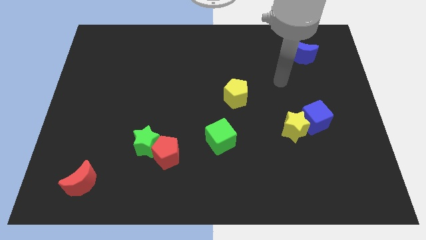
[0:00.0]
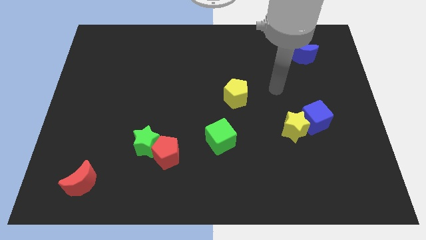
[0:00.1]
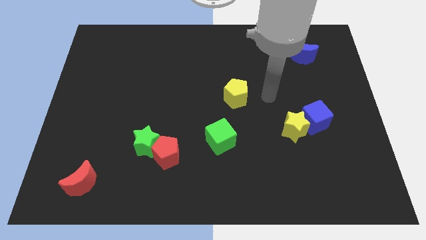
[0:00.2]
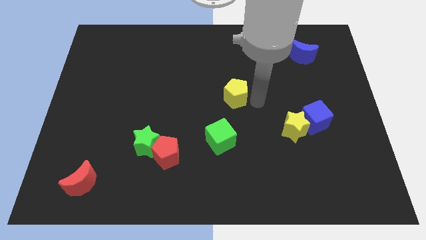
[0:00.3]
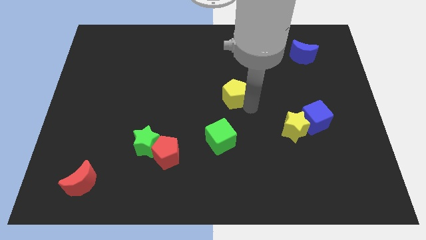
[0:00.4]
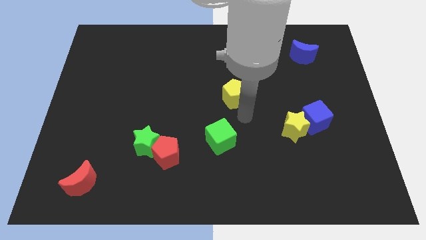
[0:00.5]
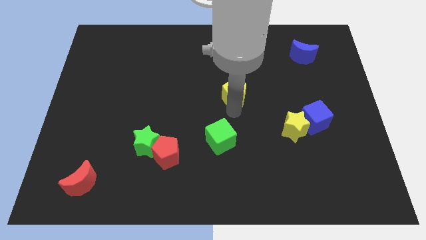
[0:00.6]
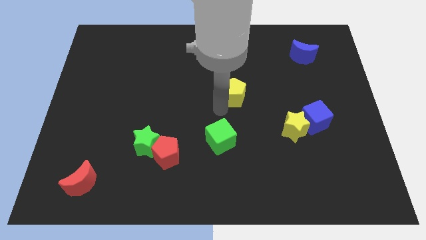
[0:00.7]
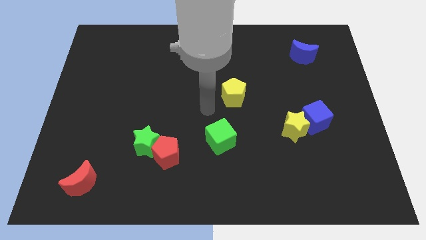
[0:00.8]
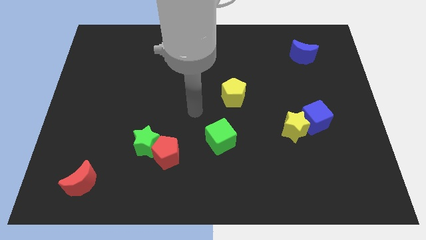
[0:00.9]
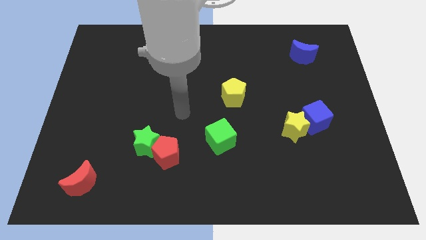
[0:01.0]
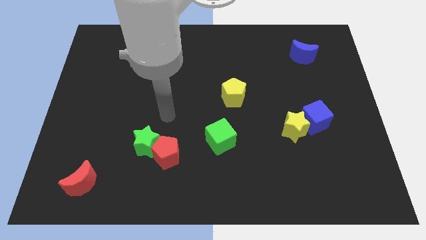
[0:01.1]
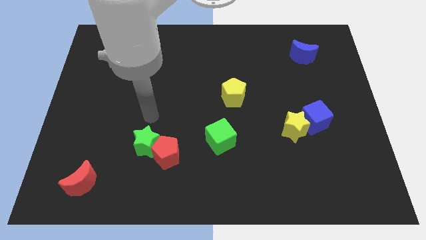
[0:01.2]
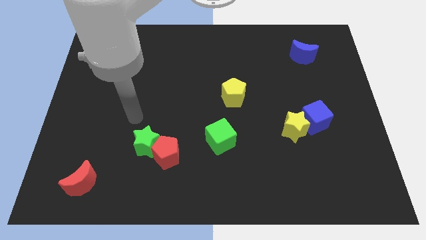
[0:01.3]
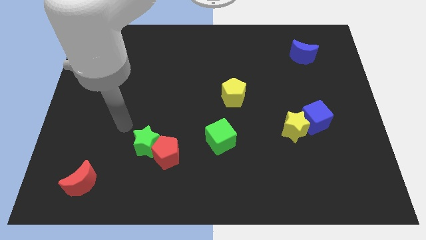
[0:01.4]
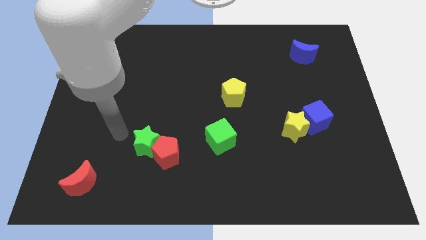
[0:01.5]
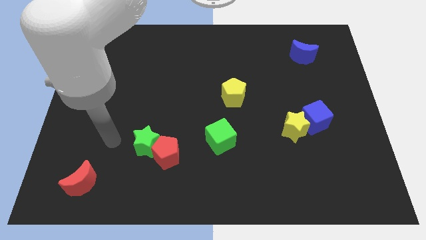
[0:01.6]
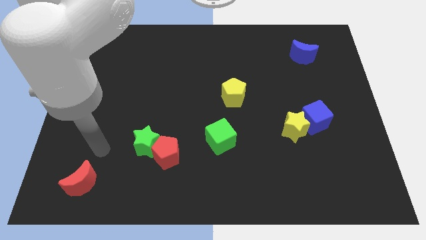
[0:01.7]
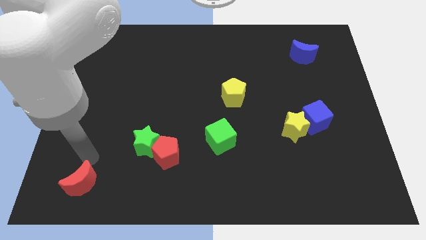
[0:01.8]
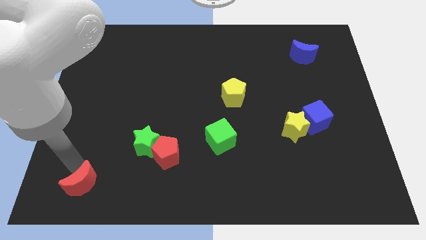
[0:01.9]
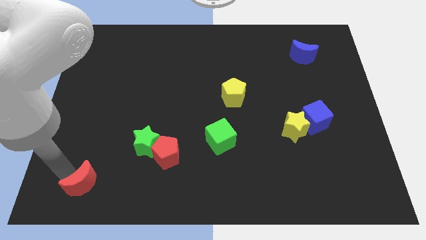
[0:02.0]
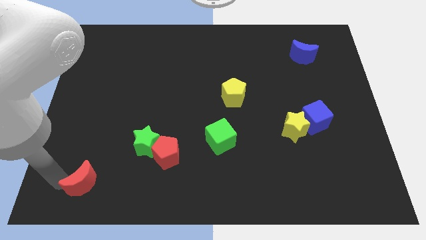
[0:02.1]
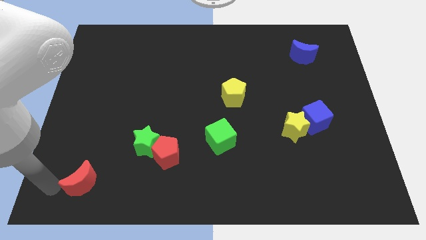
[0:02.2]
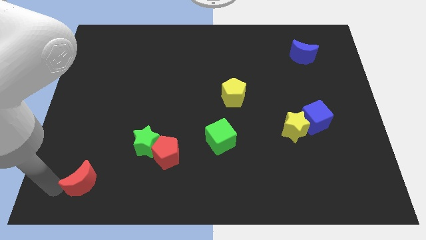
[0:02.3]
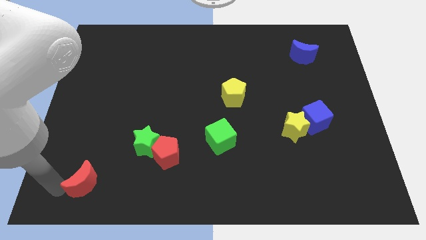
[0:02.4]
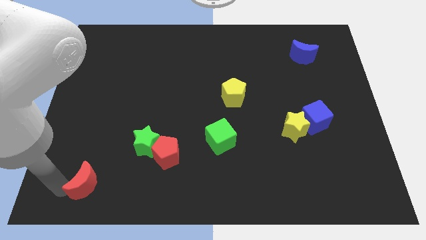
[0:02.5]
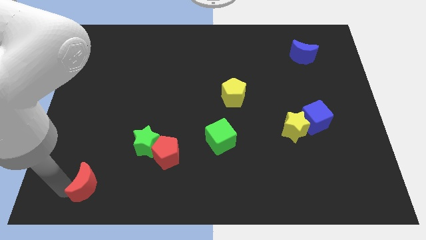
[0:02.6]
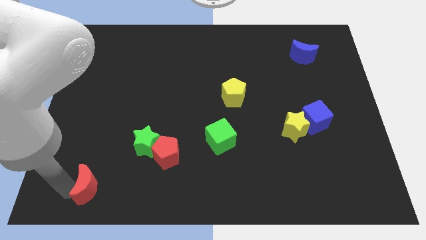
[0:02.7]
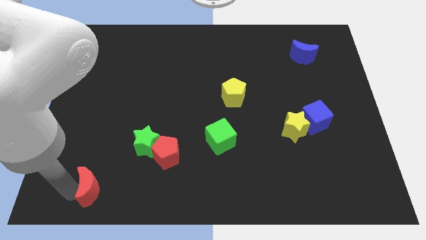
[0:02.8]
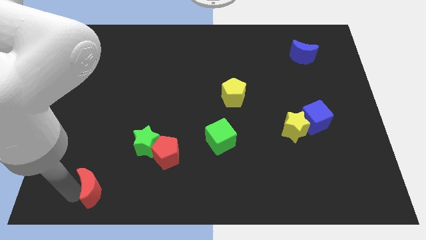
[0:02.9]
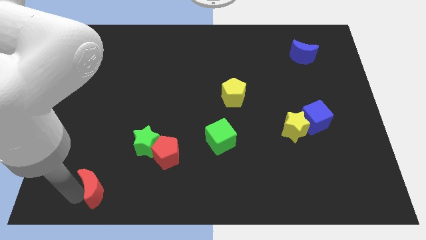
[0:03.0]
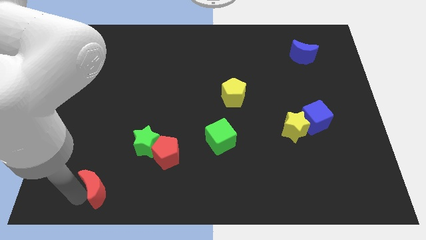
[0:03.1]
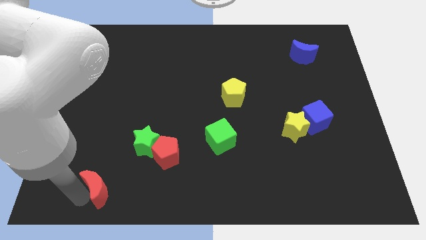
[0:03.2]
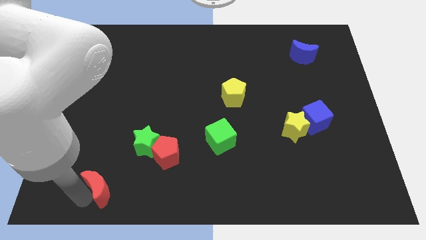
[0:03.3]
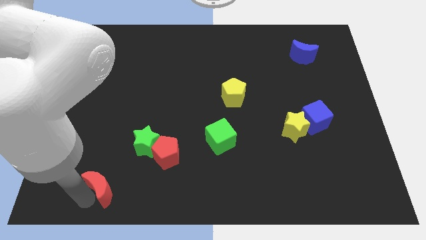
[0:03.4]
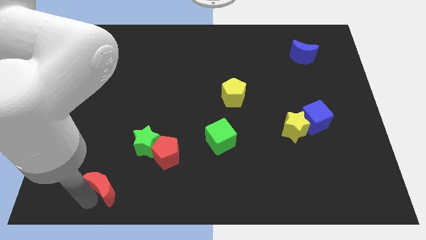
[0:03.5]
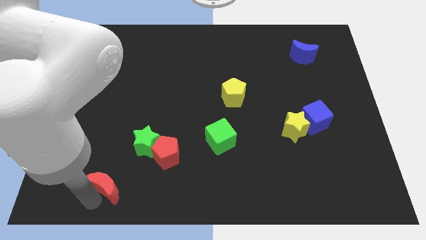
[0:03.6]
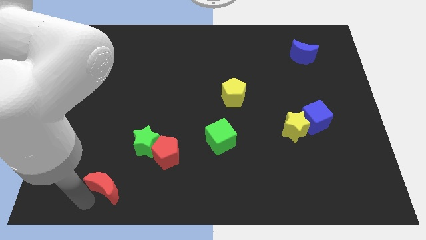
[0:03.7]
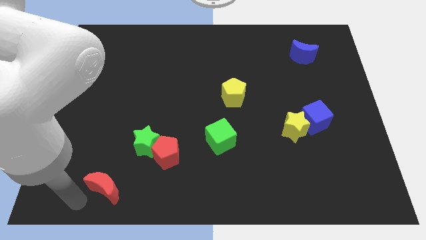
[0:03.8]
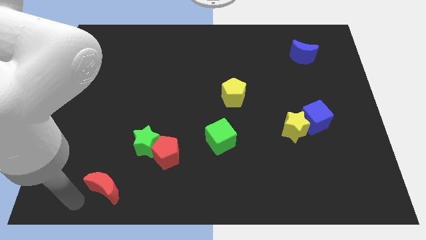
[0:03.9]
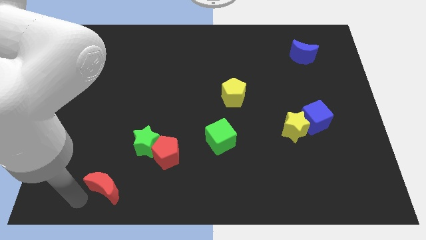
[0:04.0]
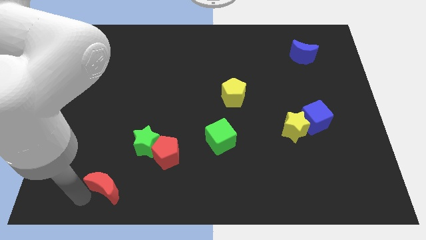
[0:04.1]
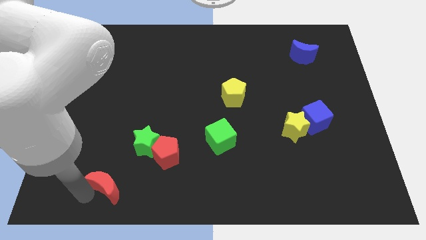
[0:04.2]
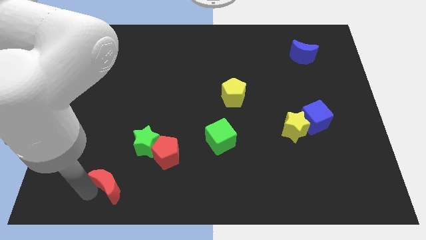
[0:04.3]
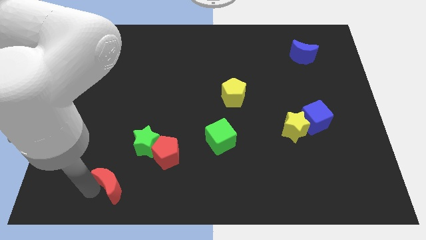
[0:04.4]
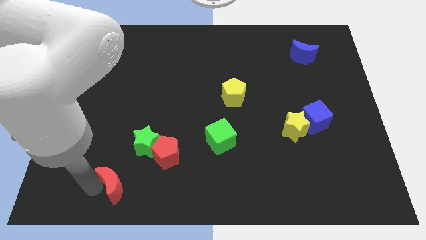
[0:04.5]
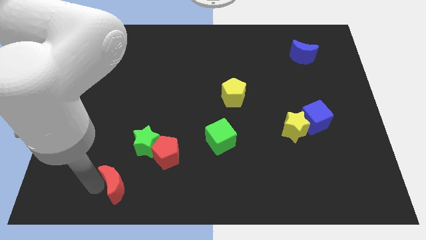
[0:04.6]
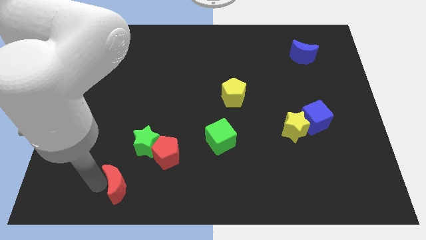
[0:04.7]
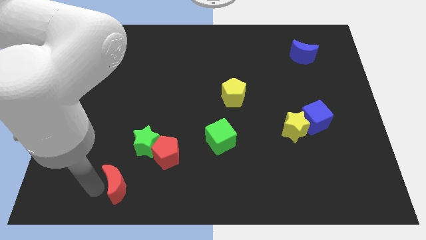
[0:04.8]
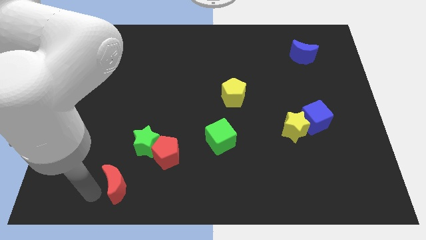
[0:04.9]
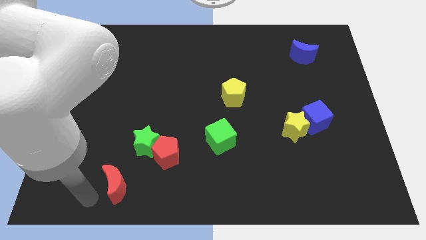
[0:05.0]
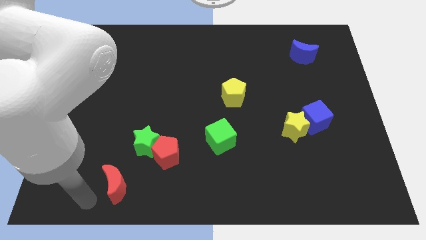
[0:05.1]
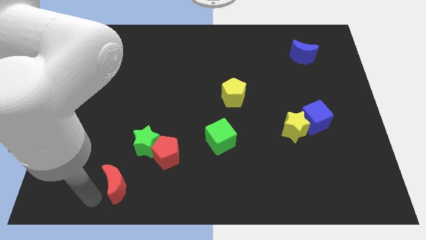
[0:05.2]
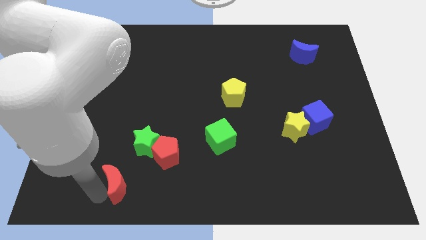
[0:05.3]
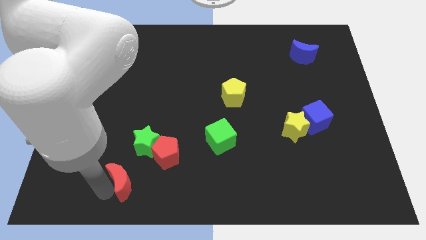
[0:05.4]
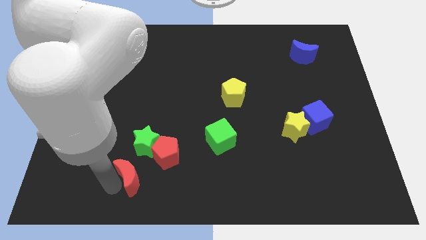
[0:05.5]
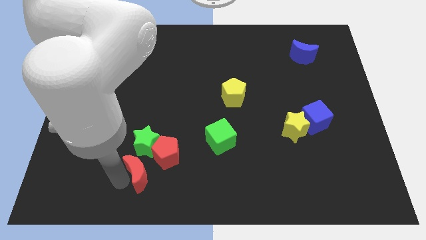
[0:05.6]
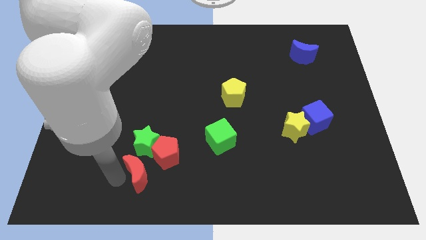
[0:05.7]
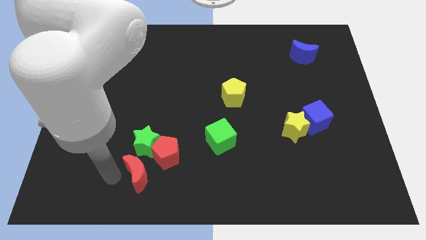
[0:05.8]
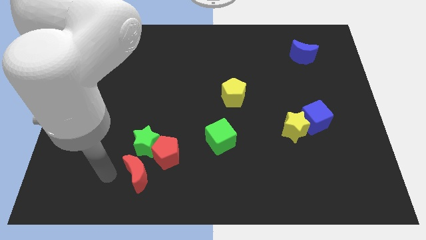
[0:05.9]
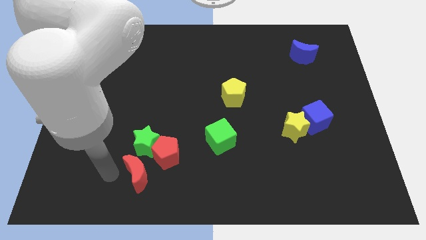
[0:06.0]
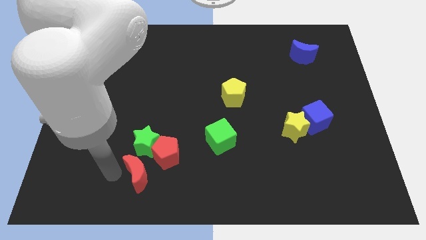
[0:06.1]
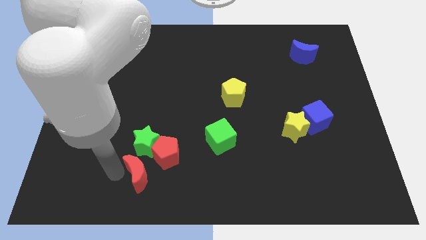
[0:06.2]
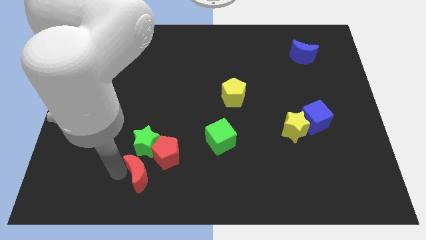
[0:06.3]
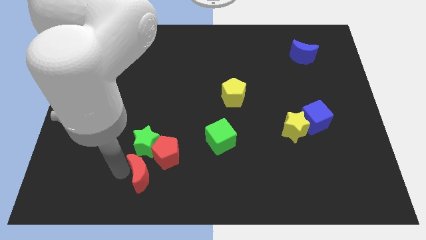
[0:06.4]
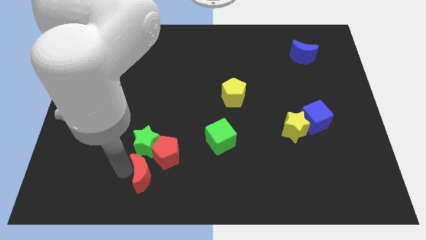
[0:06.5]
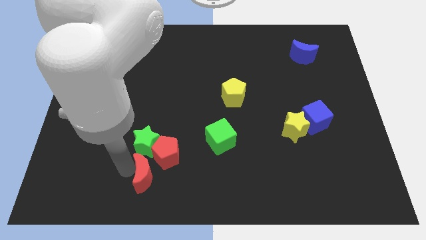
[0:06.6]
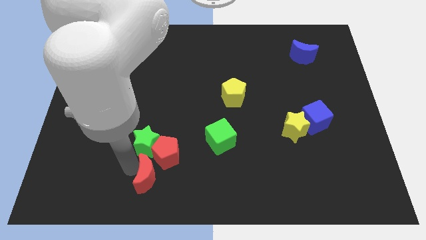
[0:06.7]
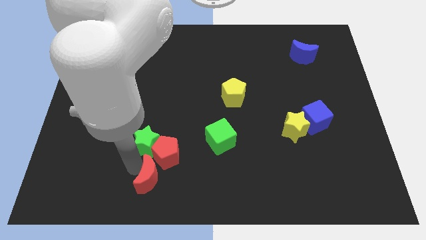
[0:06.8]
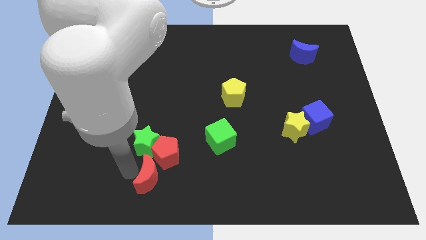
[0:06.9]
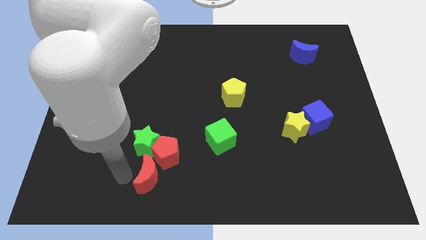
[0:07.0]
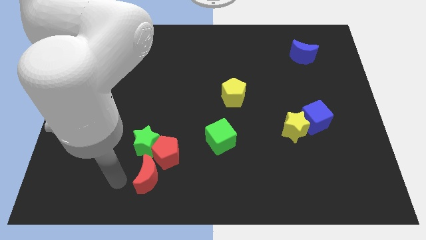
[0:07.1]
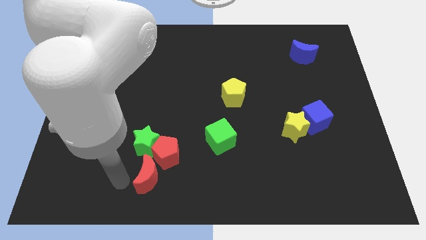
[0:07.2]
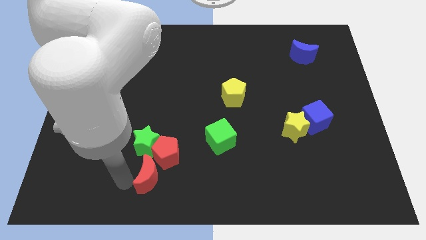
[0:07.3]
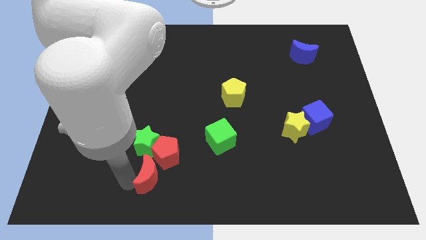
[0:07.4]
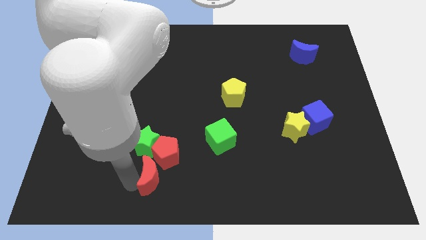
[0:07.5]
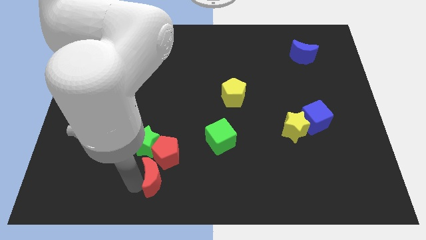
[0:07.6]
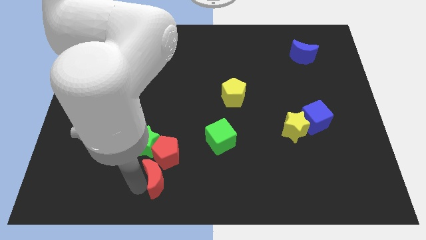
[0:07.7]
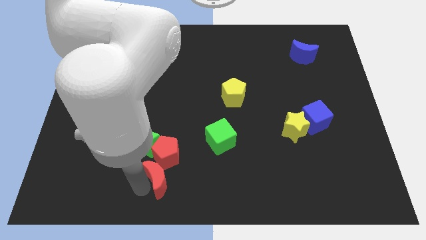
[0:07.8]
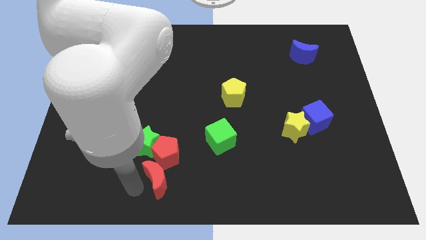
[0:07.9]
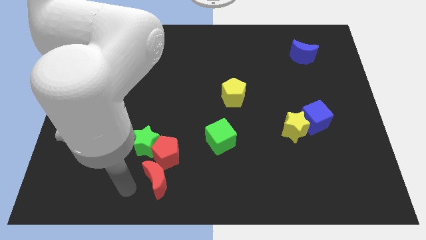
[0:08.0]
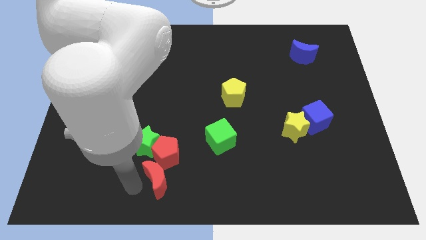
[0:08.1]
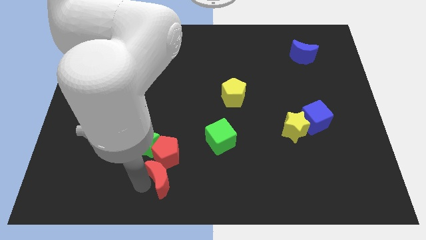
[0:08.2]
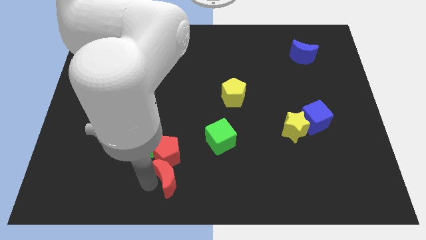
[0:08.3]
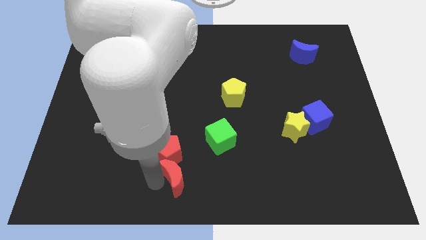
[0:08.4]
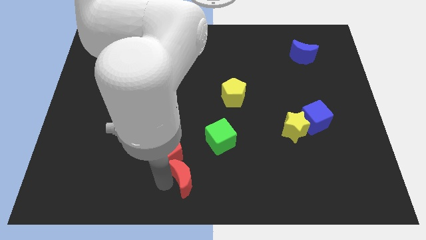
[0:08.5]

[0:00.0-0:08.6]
slide the red moon to the bottom left of the green cube
